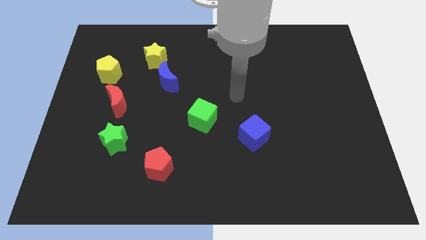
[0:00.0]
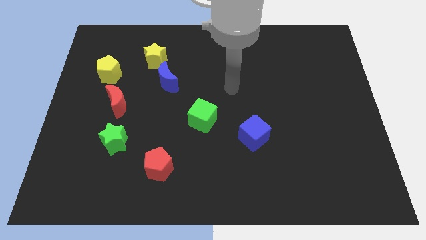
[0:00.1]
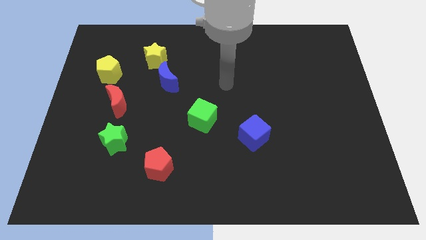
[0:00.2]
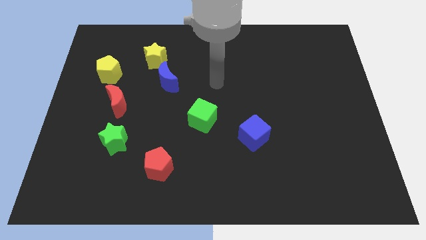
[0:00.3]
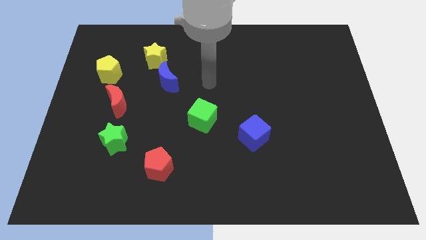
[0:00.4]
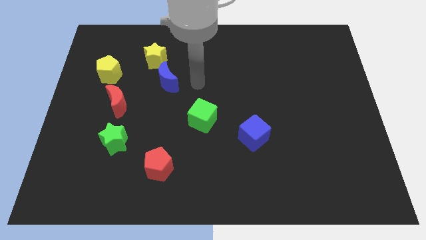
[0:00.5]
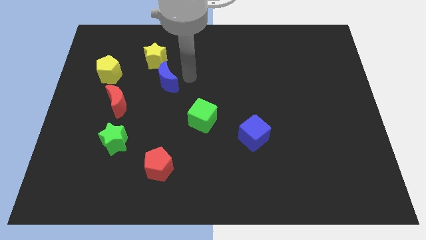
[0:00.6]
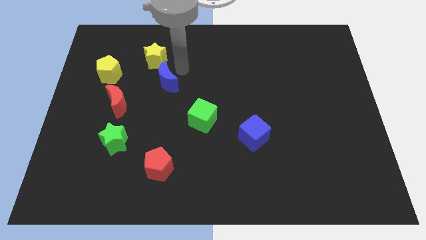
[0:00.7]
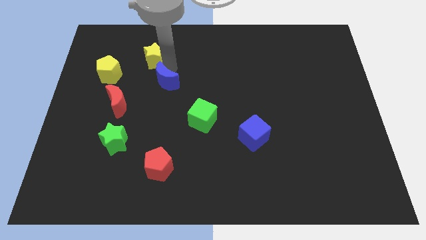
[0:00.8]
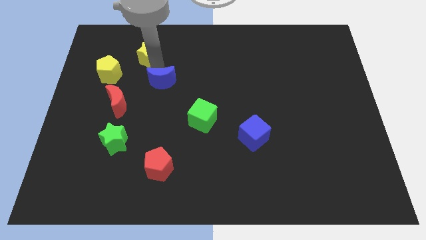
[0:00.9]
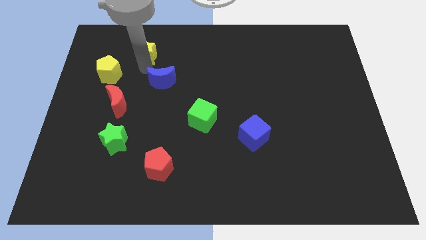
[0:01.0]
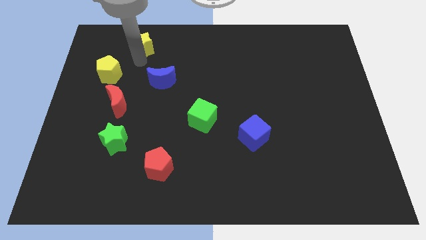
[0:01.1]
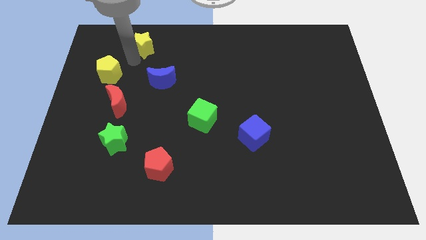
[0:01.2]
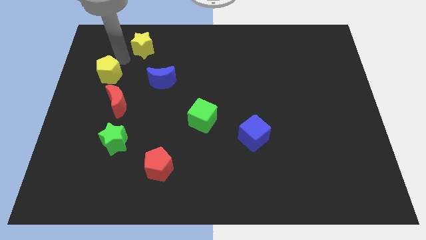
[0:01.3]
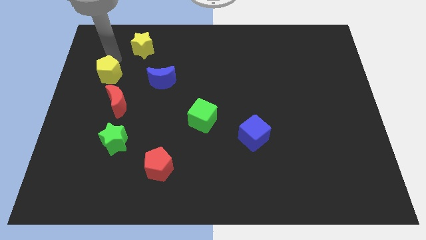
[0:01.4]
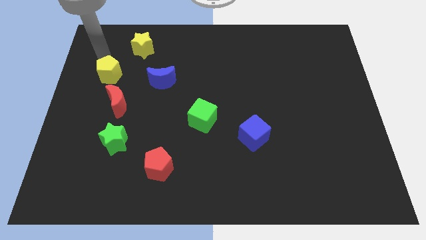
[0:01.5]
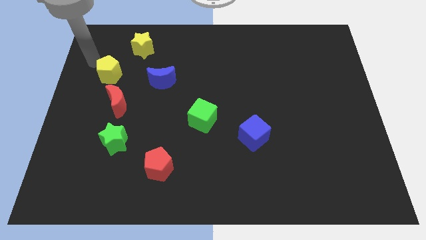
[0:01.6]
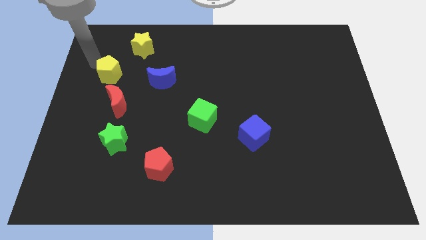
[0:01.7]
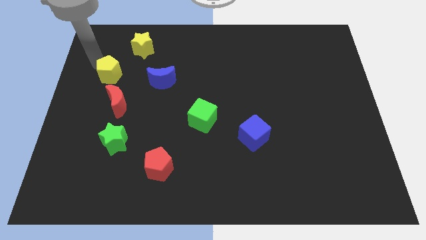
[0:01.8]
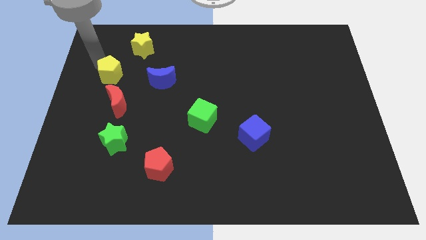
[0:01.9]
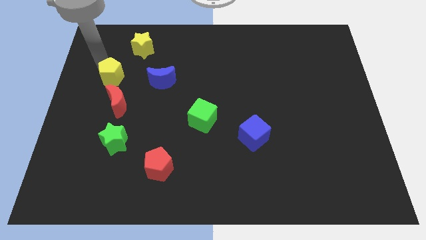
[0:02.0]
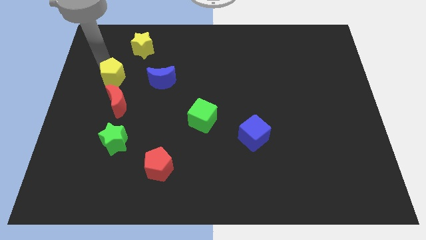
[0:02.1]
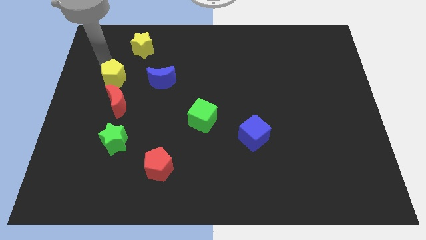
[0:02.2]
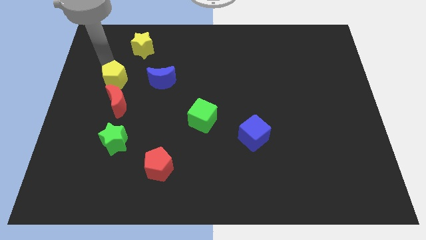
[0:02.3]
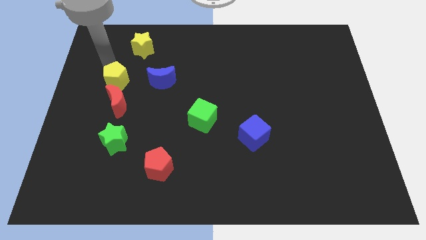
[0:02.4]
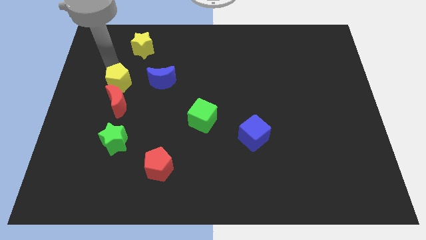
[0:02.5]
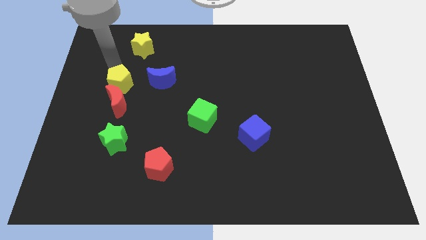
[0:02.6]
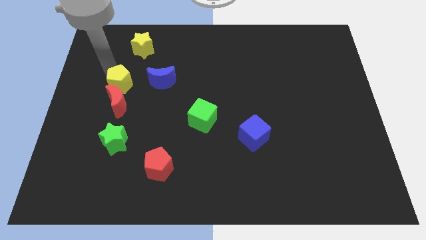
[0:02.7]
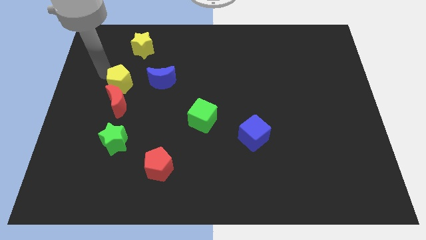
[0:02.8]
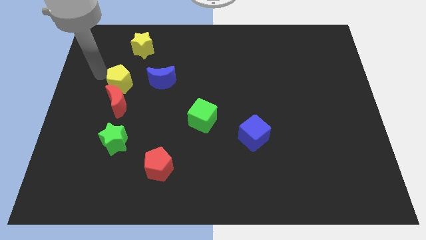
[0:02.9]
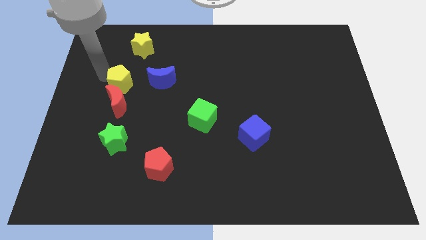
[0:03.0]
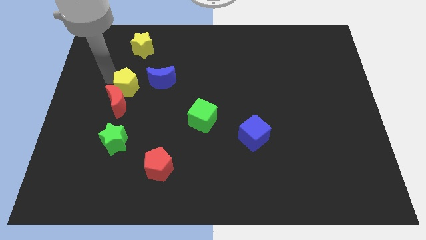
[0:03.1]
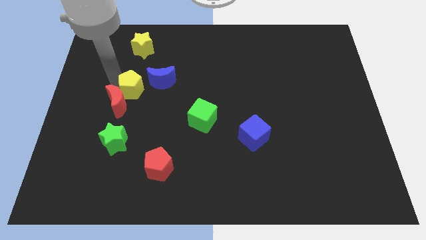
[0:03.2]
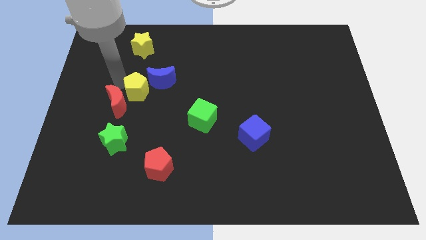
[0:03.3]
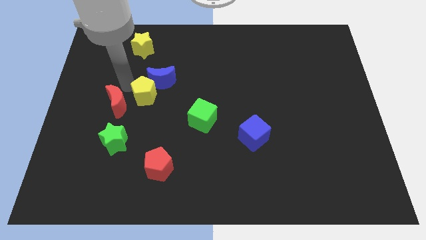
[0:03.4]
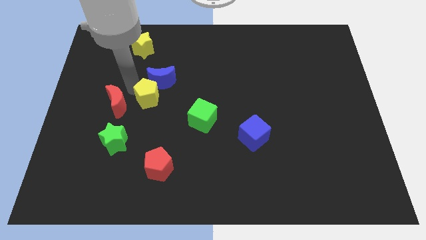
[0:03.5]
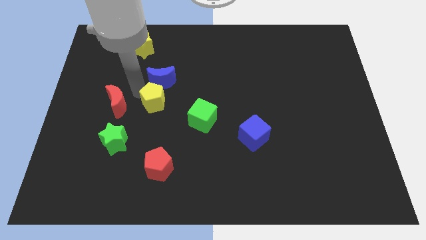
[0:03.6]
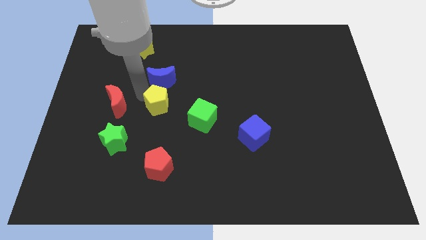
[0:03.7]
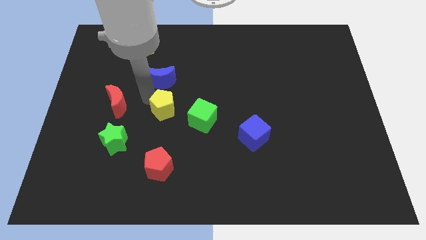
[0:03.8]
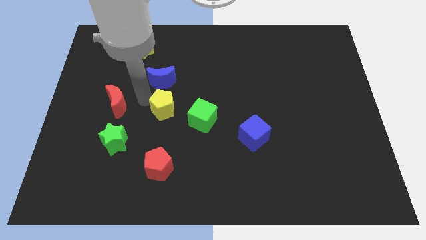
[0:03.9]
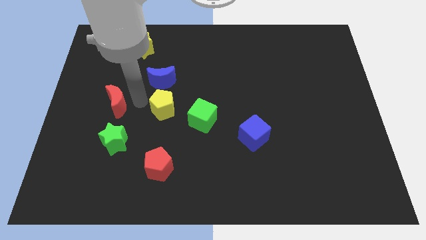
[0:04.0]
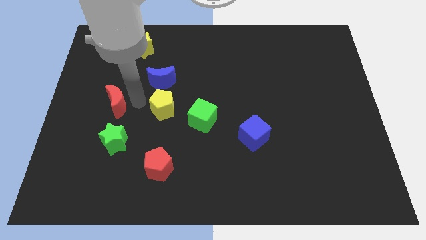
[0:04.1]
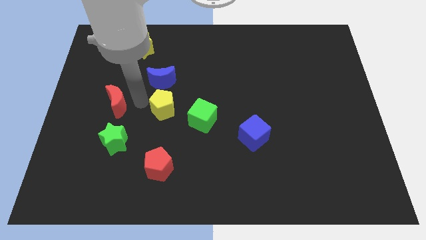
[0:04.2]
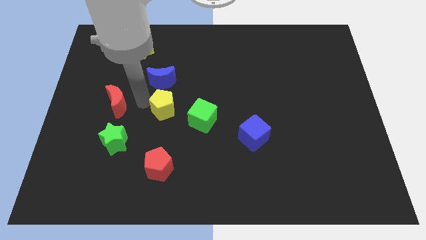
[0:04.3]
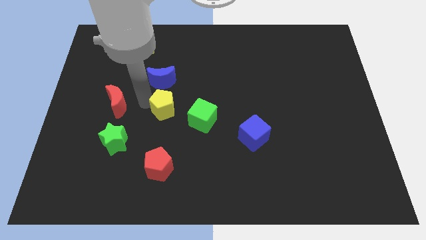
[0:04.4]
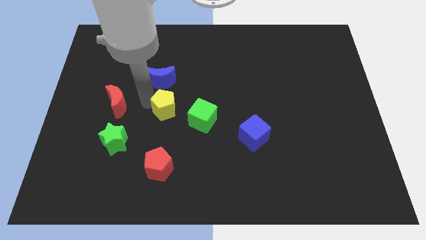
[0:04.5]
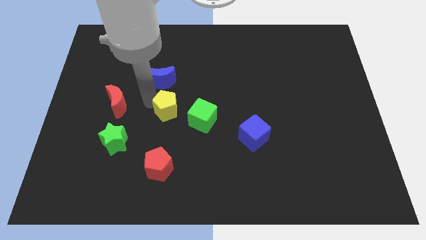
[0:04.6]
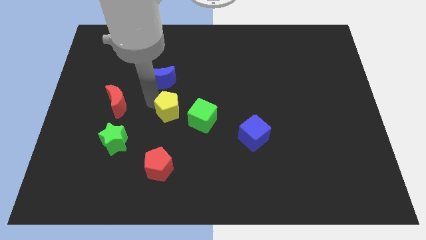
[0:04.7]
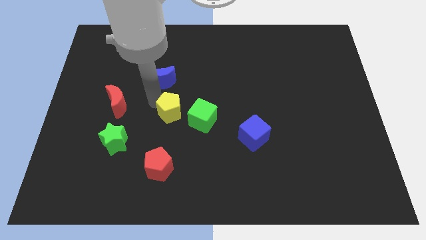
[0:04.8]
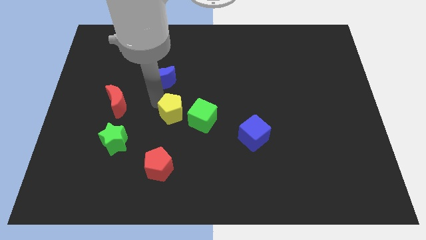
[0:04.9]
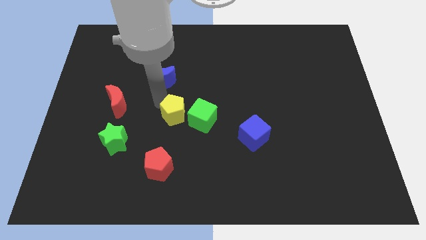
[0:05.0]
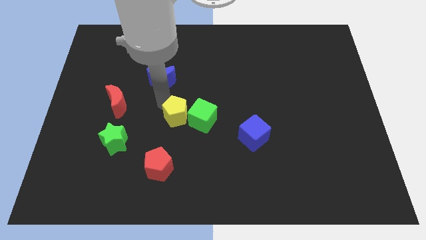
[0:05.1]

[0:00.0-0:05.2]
push the yellow pentagon to the green cube

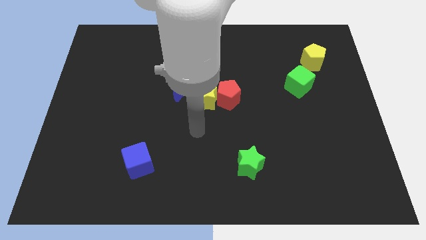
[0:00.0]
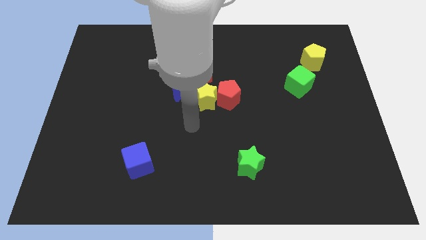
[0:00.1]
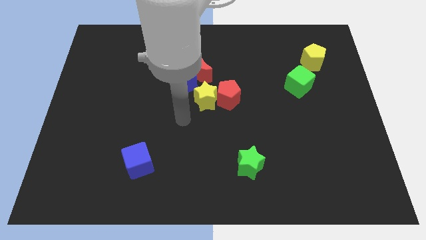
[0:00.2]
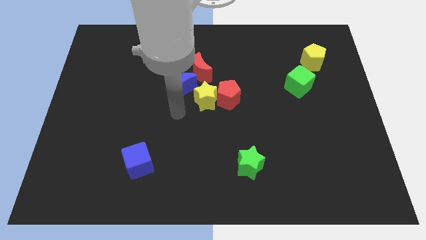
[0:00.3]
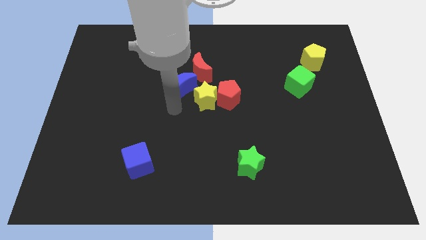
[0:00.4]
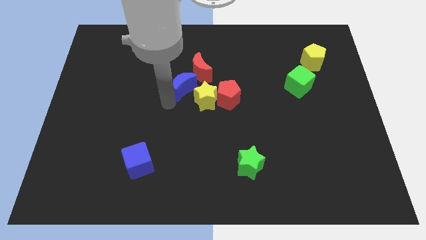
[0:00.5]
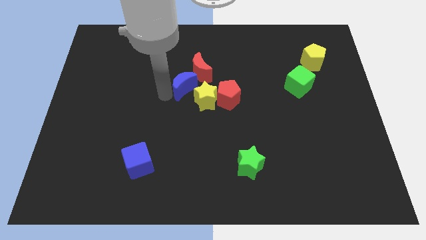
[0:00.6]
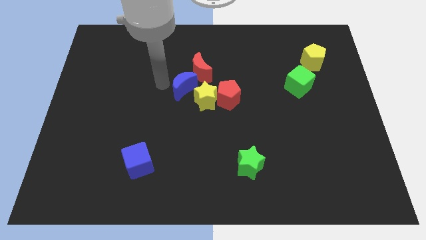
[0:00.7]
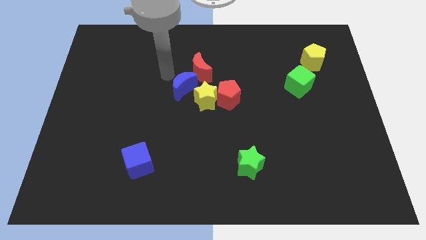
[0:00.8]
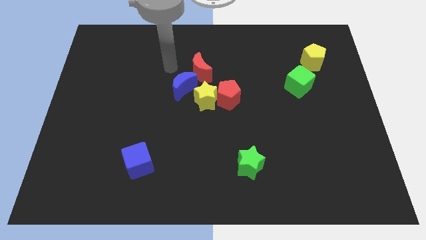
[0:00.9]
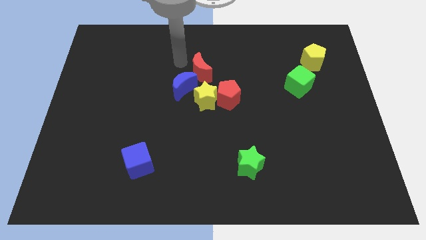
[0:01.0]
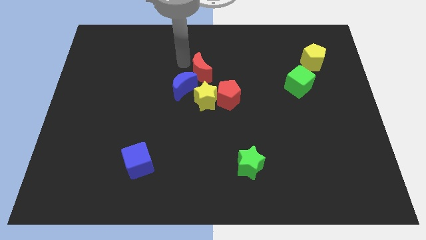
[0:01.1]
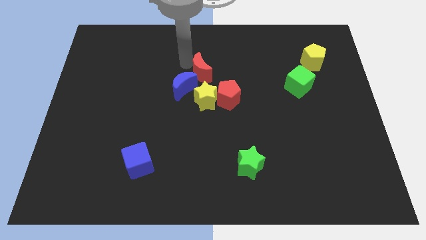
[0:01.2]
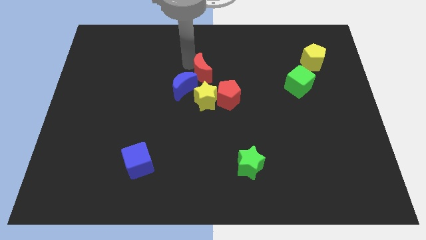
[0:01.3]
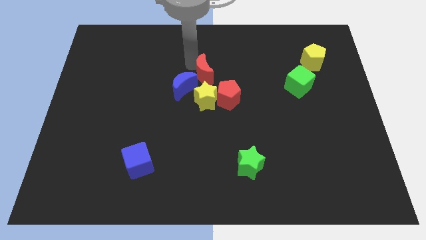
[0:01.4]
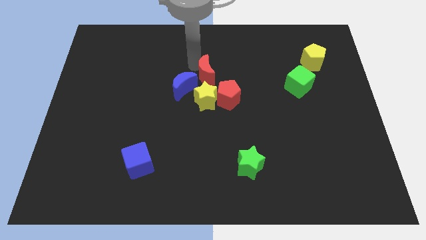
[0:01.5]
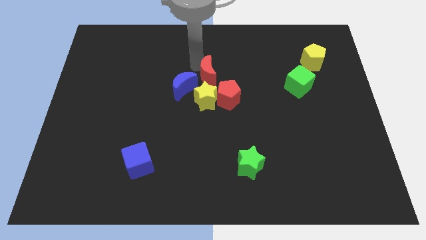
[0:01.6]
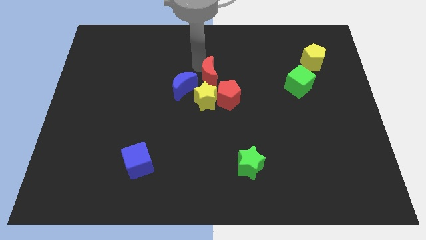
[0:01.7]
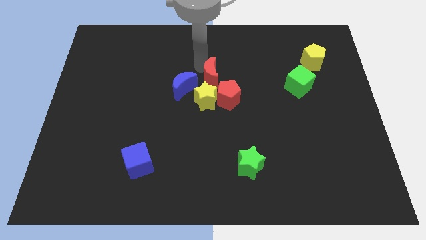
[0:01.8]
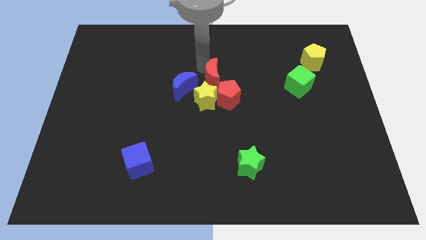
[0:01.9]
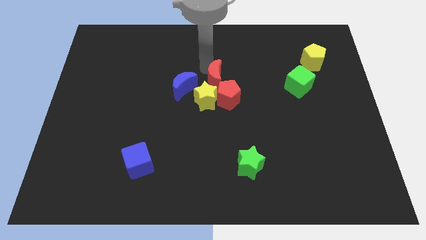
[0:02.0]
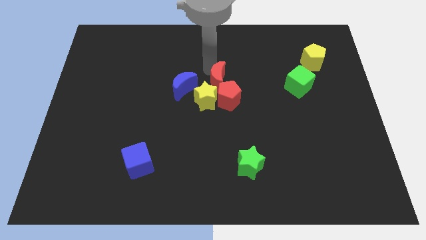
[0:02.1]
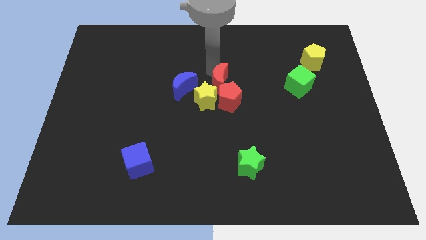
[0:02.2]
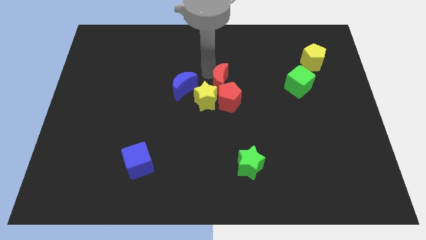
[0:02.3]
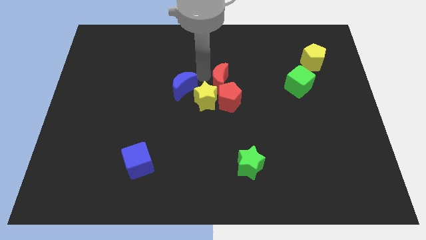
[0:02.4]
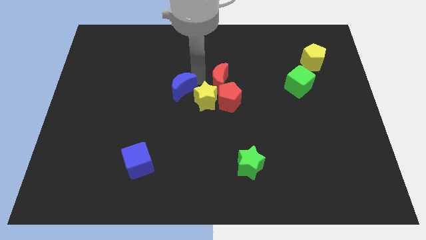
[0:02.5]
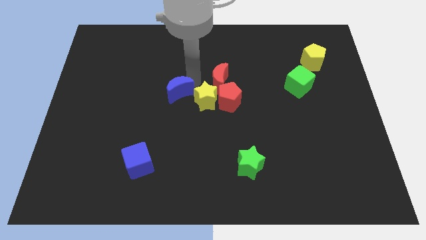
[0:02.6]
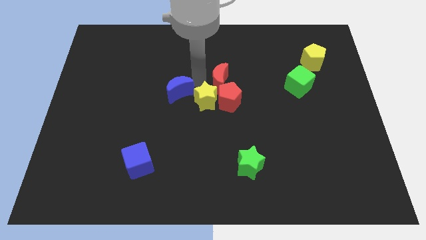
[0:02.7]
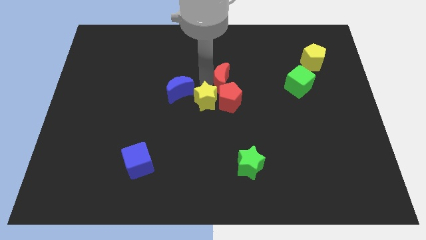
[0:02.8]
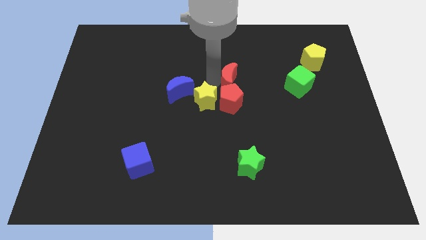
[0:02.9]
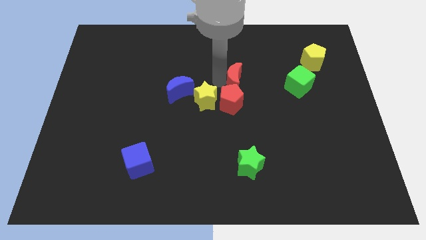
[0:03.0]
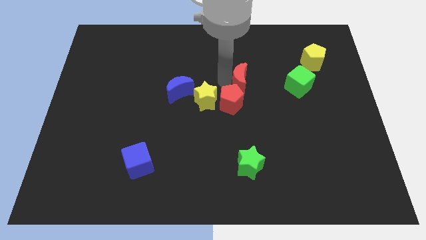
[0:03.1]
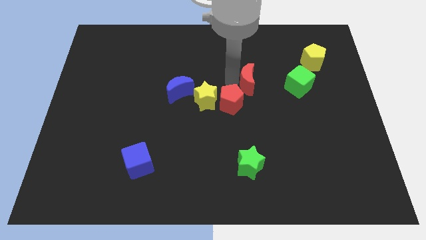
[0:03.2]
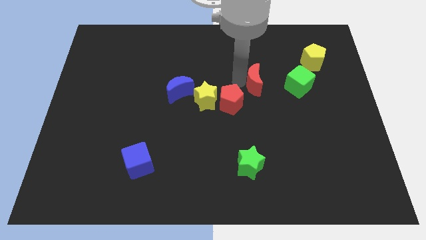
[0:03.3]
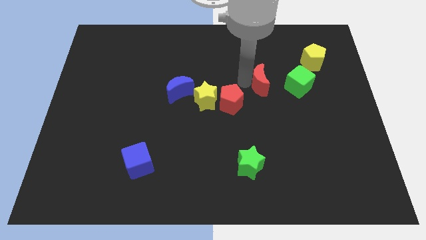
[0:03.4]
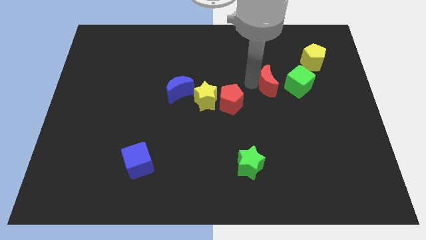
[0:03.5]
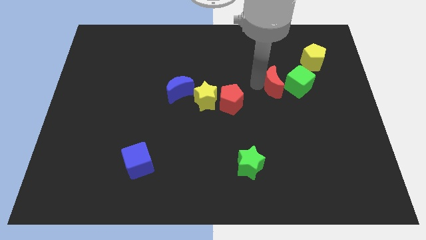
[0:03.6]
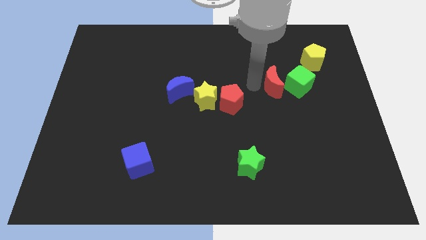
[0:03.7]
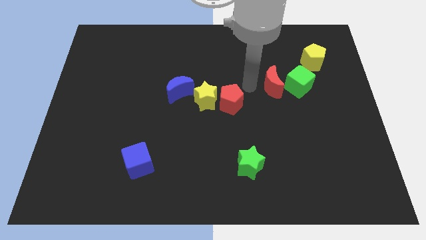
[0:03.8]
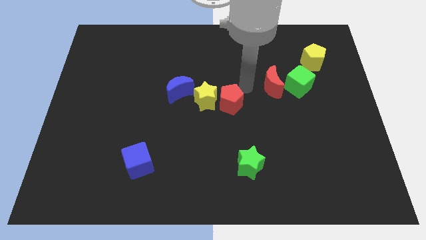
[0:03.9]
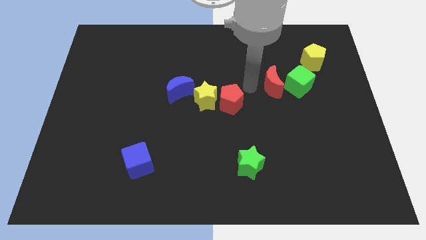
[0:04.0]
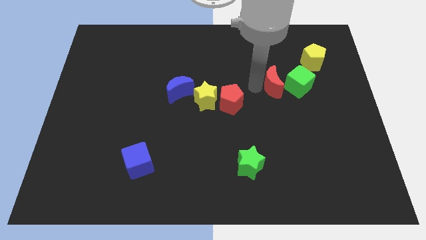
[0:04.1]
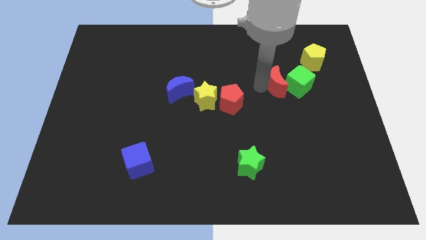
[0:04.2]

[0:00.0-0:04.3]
move the red moon to the green cube
